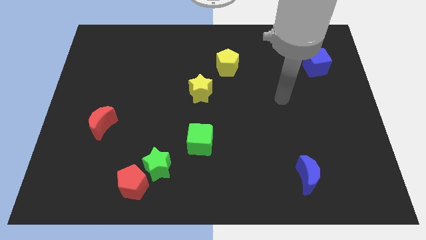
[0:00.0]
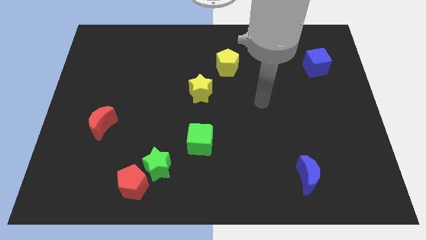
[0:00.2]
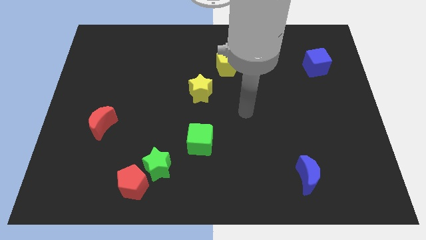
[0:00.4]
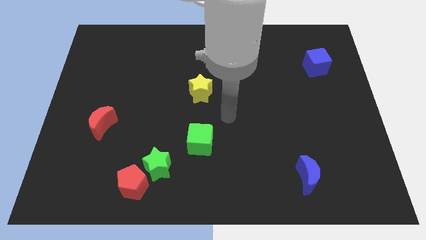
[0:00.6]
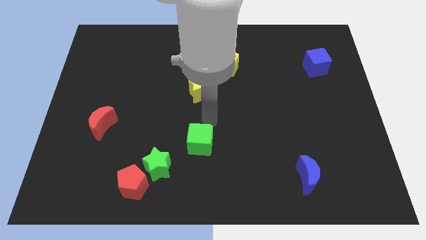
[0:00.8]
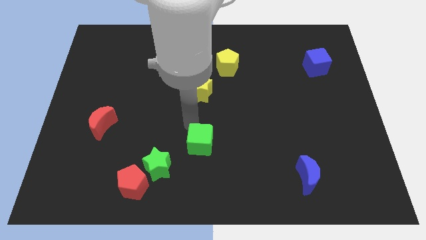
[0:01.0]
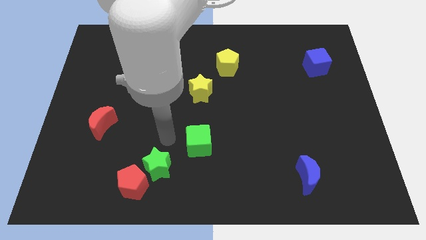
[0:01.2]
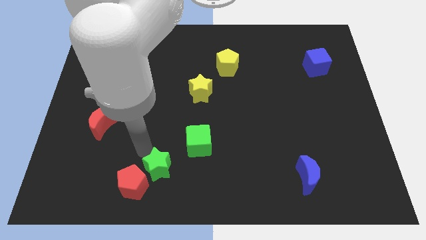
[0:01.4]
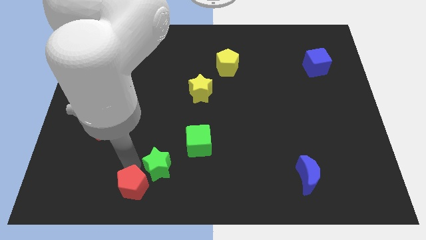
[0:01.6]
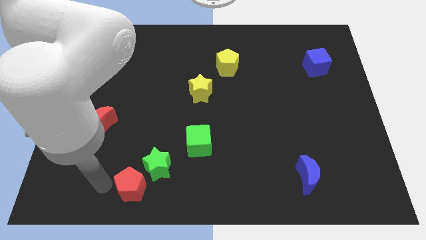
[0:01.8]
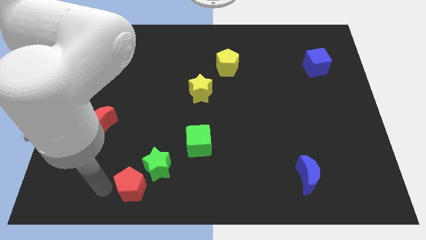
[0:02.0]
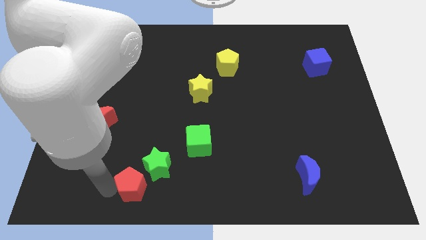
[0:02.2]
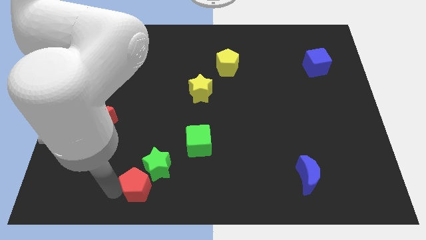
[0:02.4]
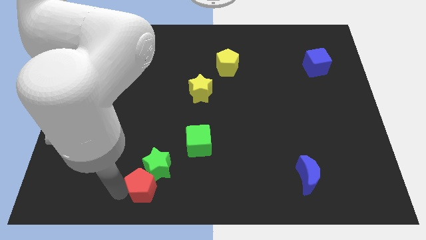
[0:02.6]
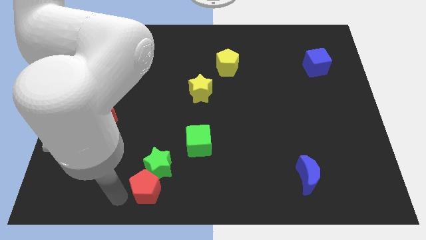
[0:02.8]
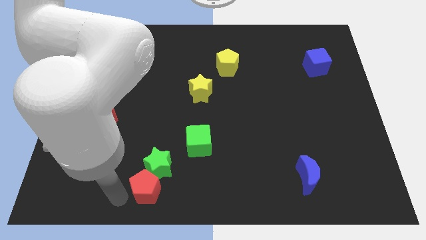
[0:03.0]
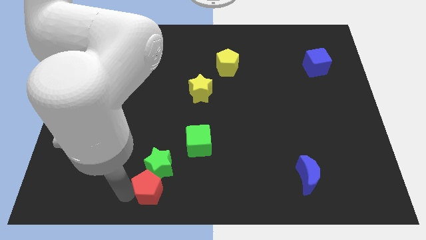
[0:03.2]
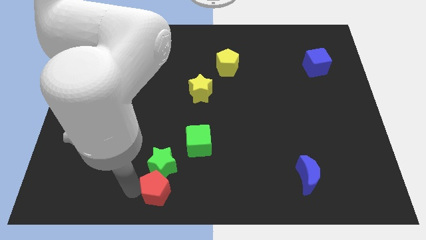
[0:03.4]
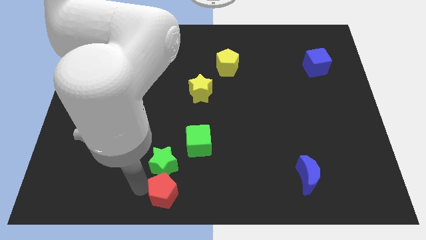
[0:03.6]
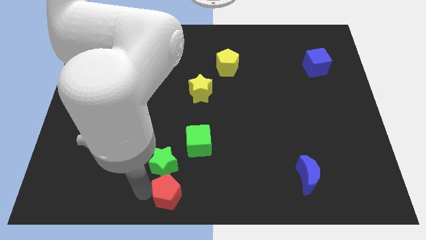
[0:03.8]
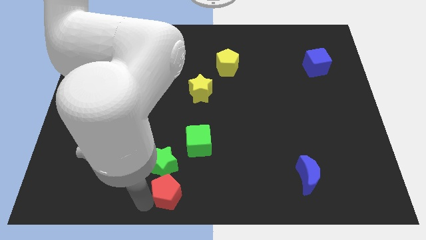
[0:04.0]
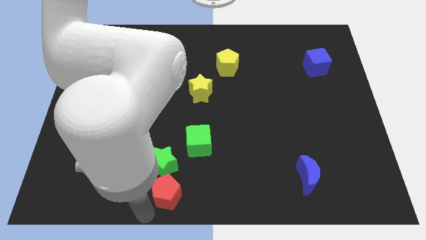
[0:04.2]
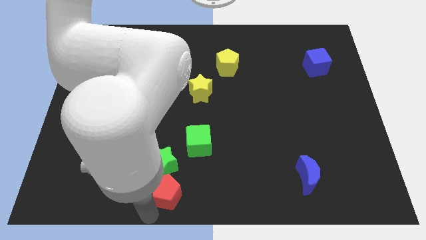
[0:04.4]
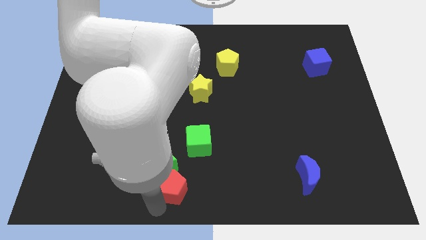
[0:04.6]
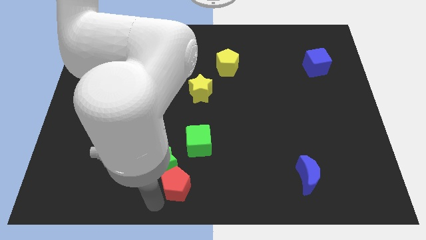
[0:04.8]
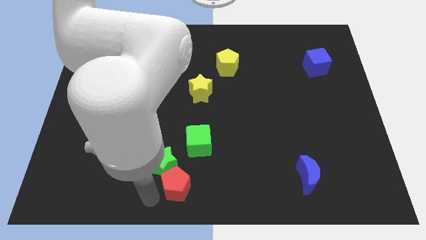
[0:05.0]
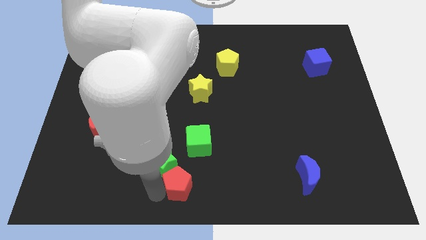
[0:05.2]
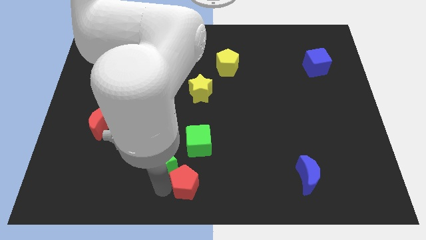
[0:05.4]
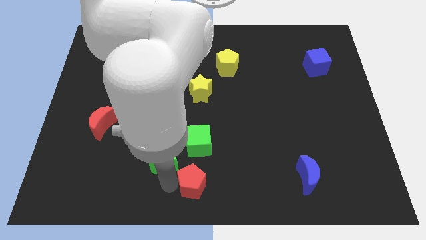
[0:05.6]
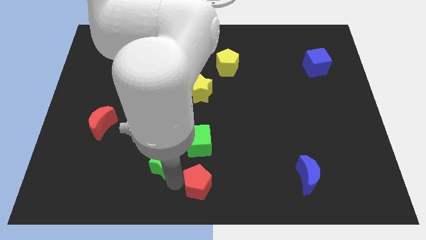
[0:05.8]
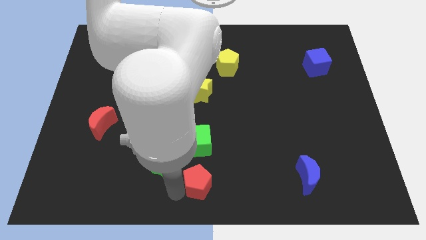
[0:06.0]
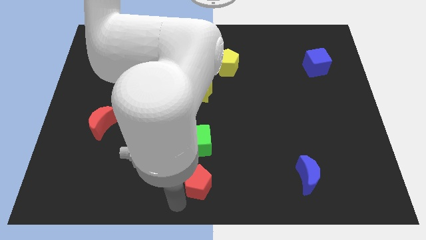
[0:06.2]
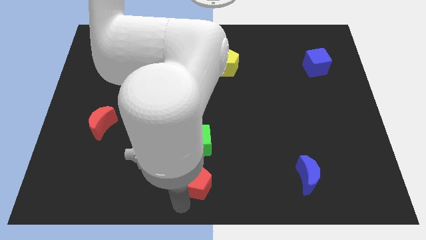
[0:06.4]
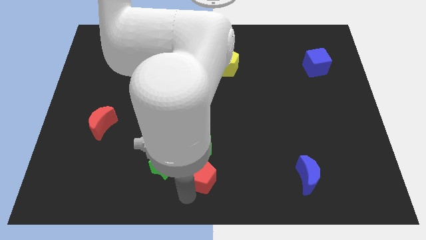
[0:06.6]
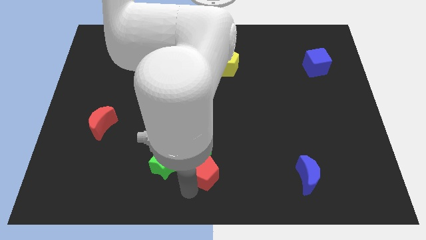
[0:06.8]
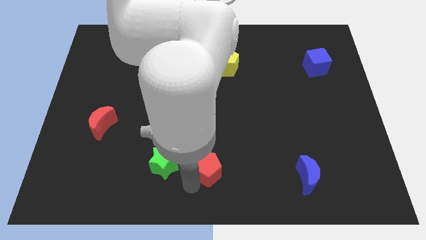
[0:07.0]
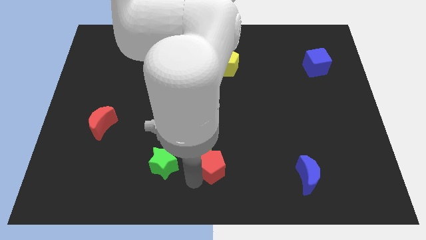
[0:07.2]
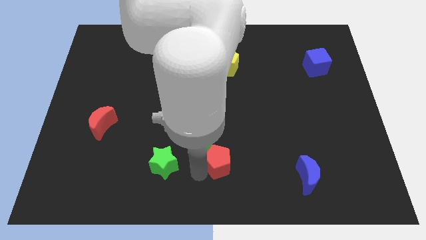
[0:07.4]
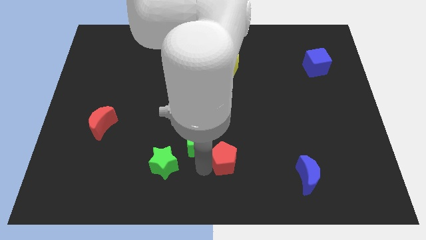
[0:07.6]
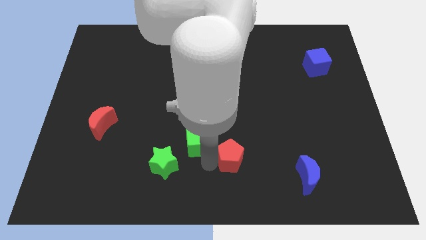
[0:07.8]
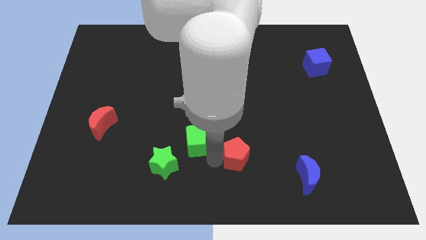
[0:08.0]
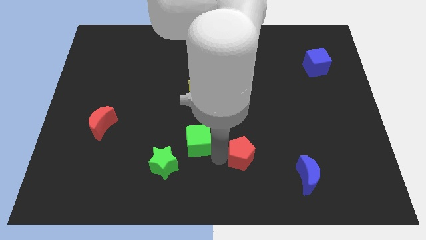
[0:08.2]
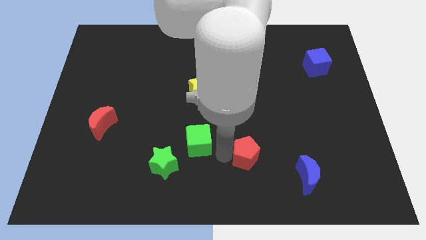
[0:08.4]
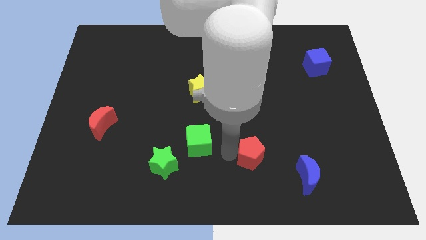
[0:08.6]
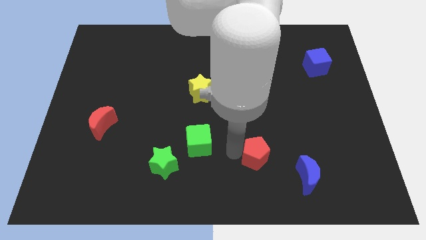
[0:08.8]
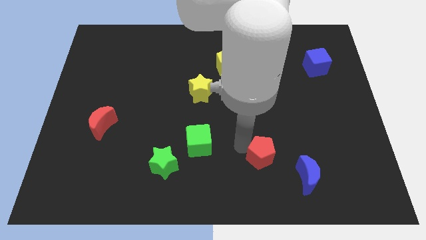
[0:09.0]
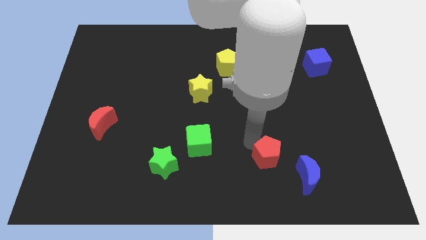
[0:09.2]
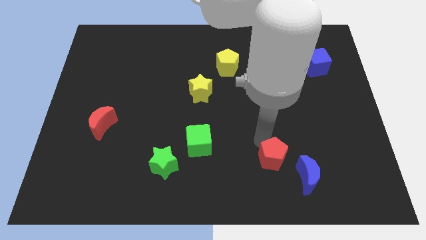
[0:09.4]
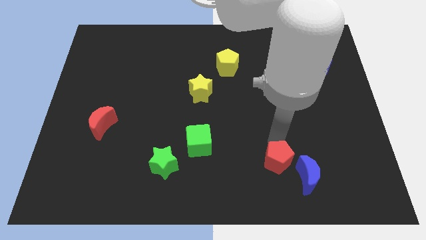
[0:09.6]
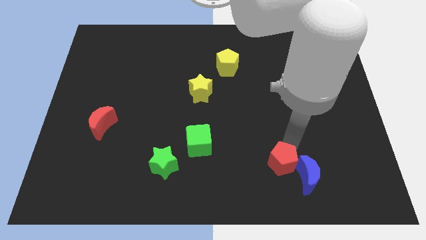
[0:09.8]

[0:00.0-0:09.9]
put the red pentagon close to the blue moon

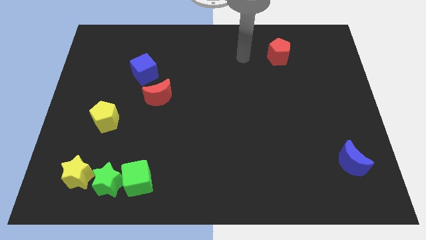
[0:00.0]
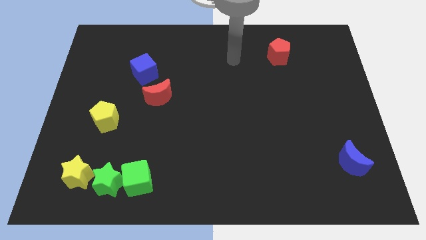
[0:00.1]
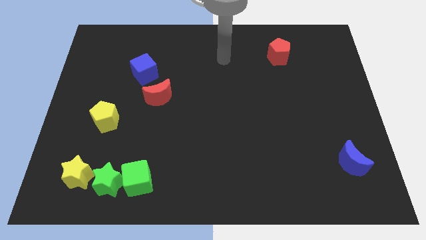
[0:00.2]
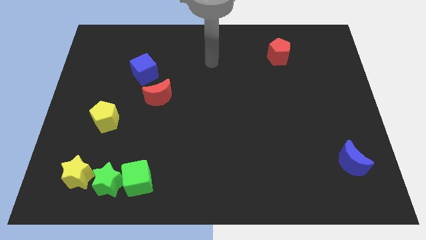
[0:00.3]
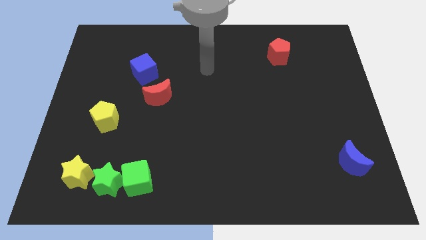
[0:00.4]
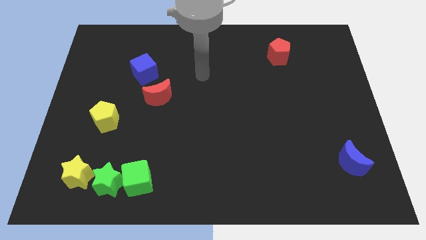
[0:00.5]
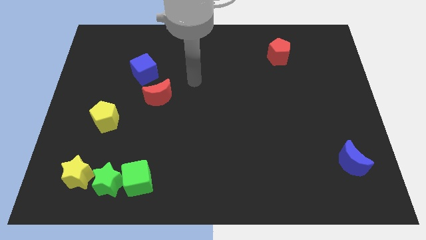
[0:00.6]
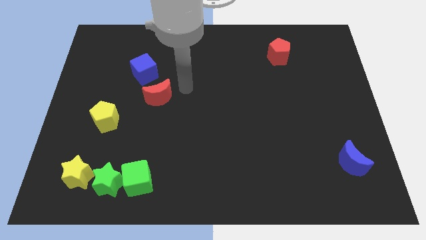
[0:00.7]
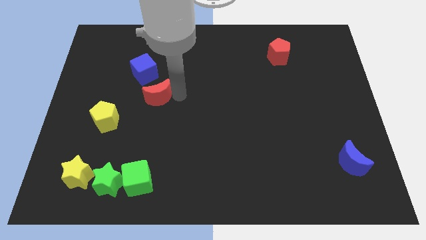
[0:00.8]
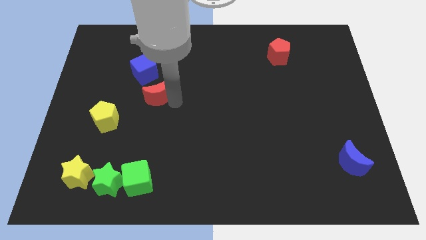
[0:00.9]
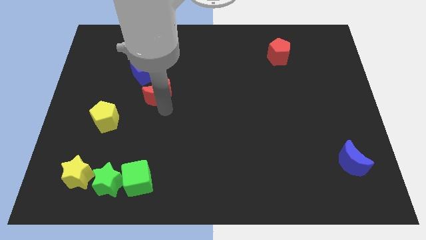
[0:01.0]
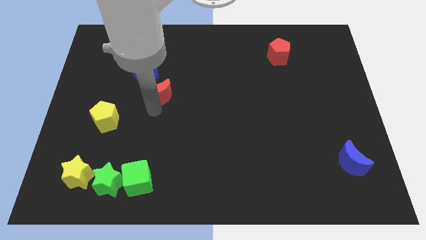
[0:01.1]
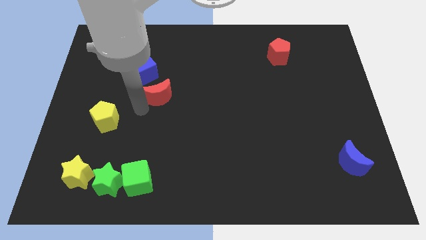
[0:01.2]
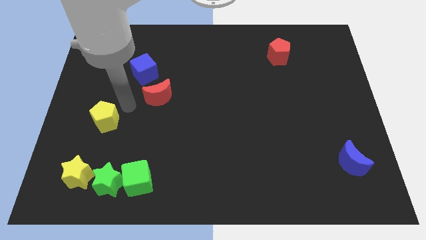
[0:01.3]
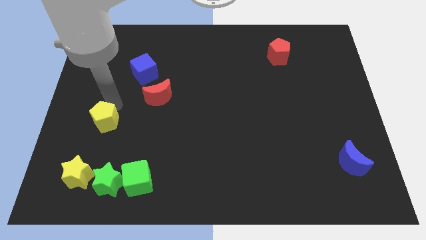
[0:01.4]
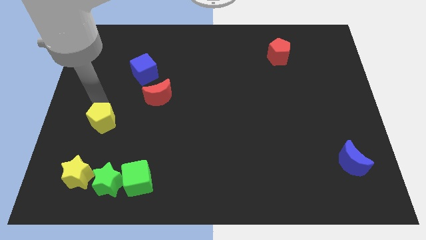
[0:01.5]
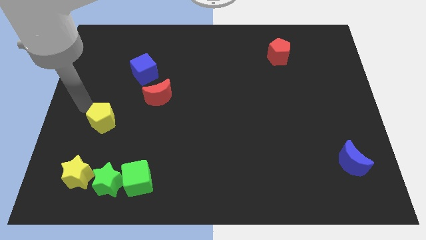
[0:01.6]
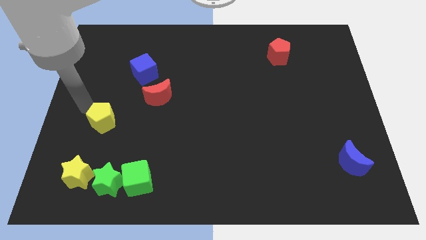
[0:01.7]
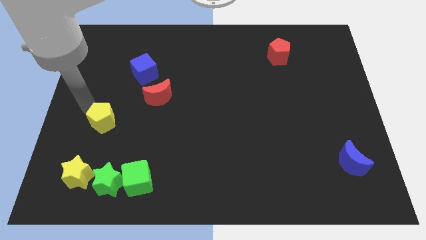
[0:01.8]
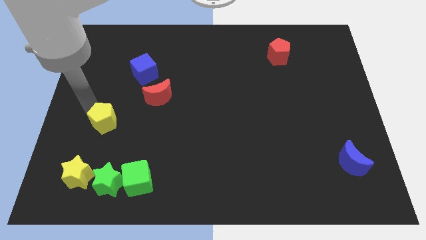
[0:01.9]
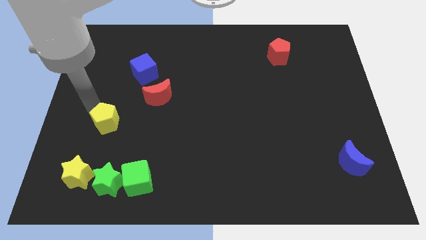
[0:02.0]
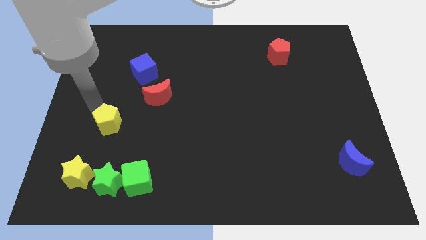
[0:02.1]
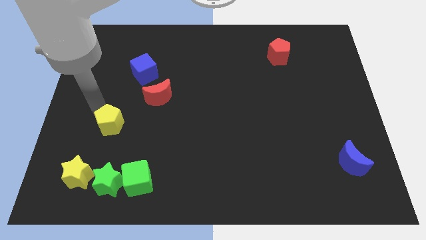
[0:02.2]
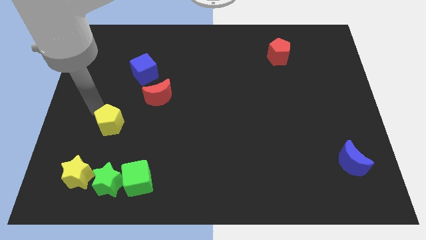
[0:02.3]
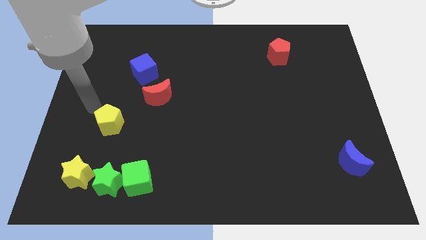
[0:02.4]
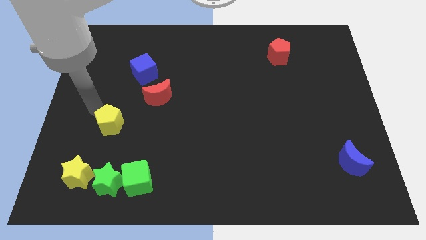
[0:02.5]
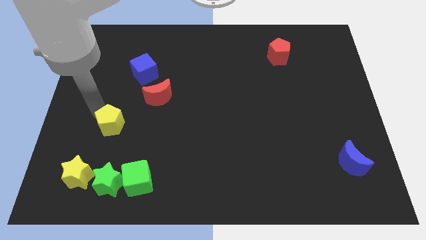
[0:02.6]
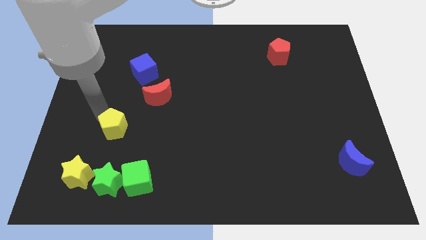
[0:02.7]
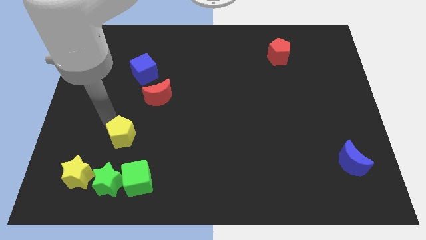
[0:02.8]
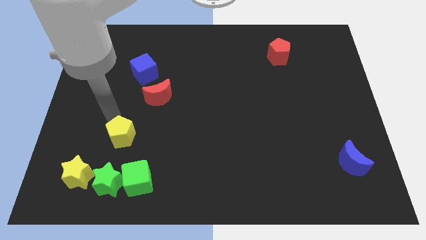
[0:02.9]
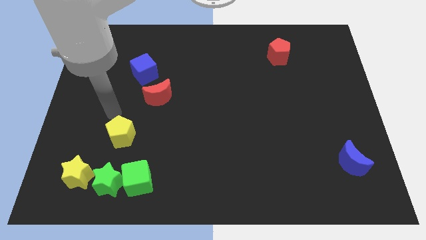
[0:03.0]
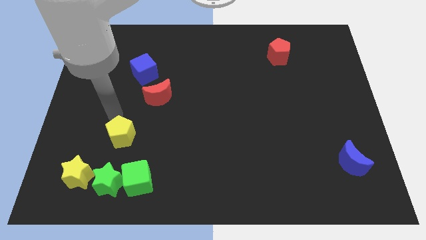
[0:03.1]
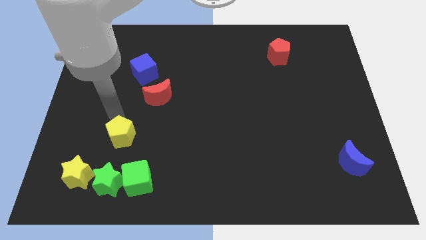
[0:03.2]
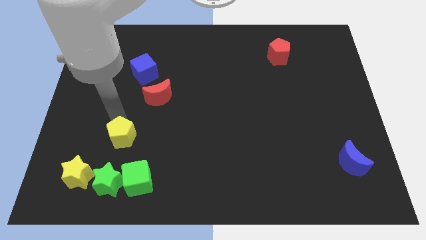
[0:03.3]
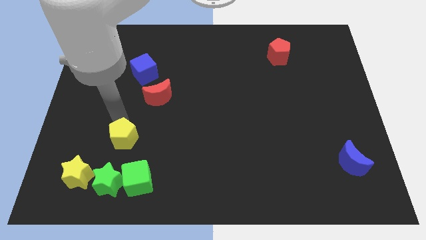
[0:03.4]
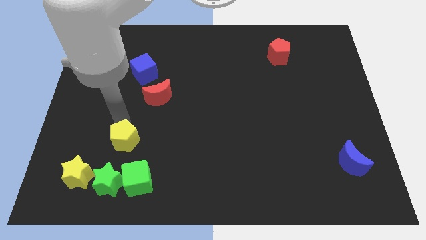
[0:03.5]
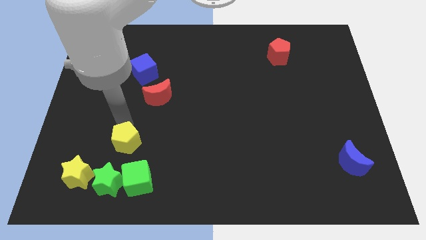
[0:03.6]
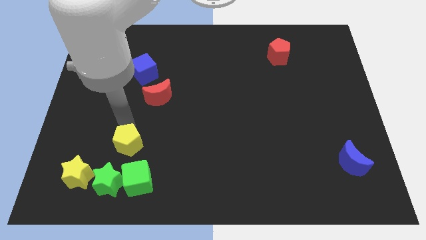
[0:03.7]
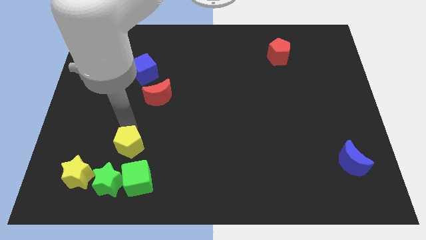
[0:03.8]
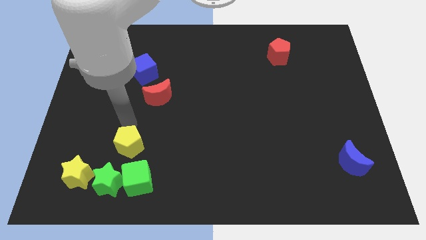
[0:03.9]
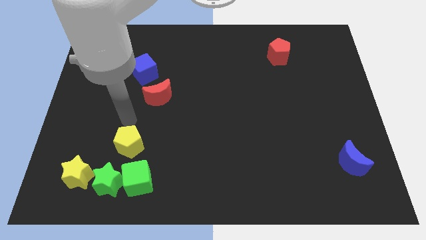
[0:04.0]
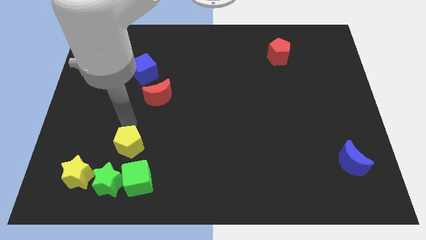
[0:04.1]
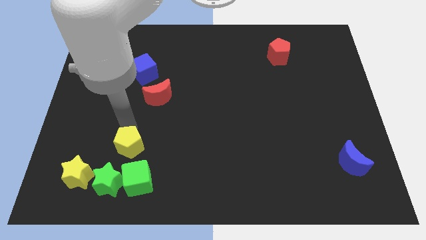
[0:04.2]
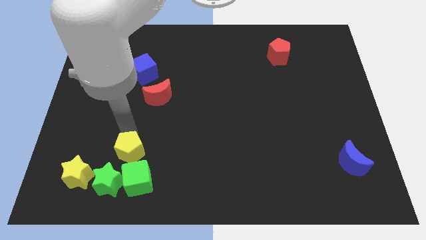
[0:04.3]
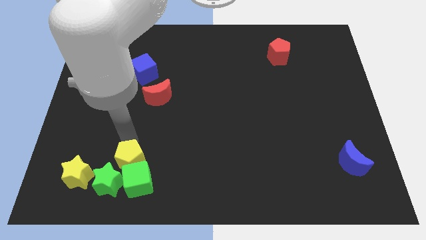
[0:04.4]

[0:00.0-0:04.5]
move the yellow pentagon to the green cube
